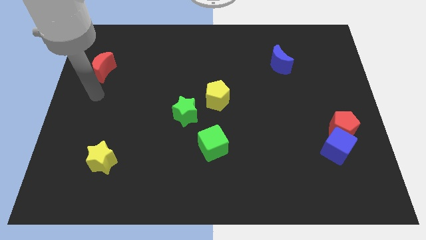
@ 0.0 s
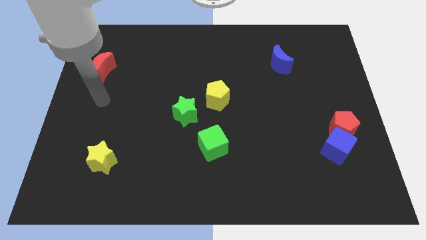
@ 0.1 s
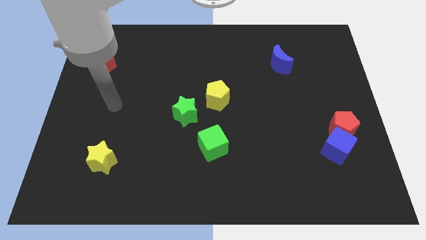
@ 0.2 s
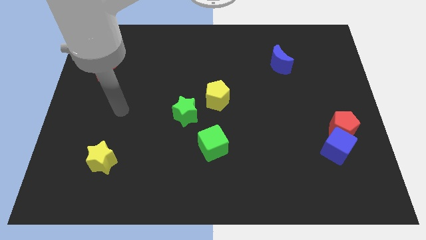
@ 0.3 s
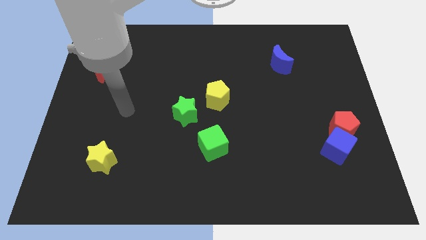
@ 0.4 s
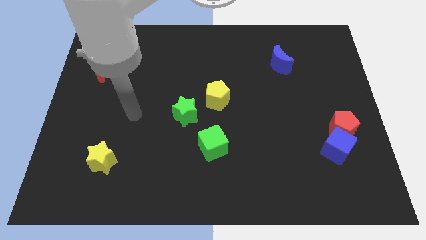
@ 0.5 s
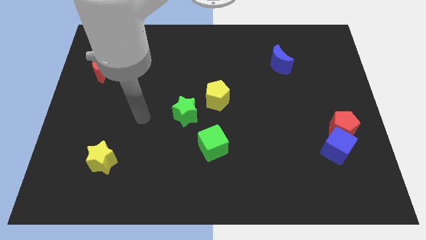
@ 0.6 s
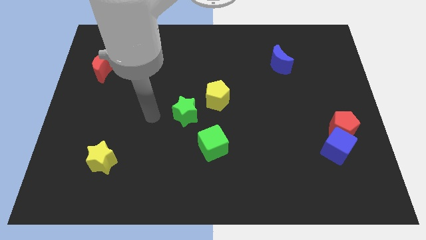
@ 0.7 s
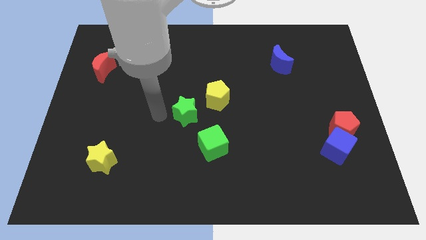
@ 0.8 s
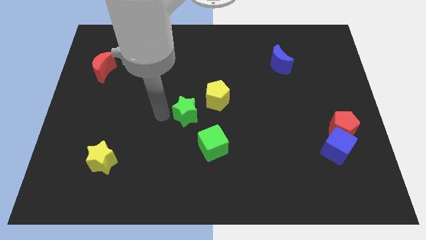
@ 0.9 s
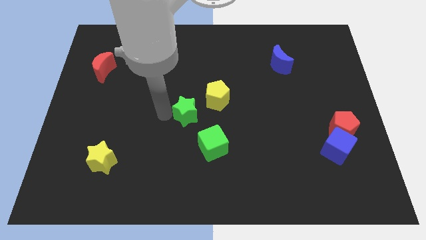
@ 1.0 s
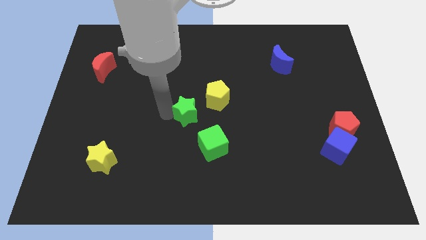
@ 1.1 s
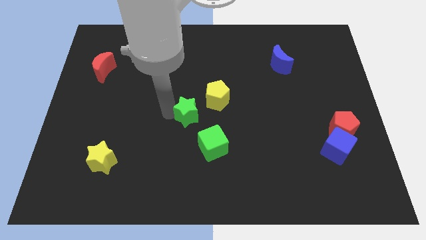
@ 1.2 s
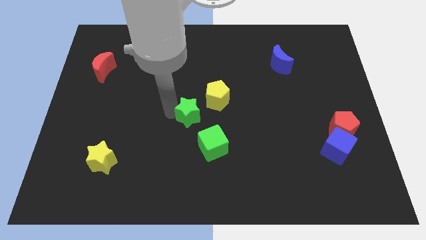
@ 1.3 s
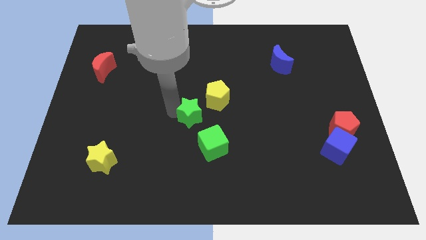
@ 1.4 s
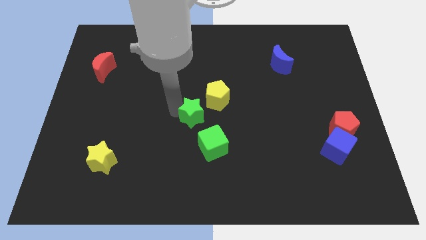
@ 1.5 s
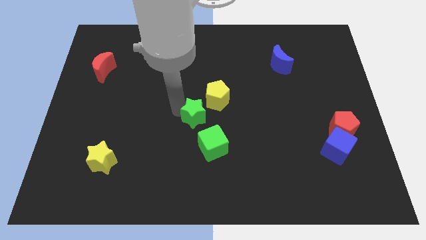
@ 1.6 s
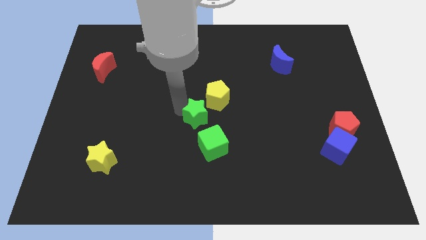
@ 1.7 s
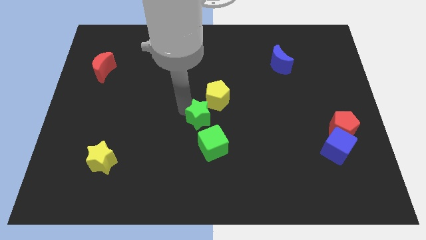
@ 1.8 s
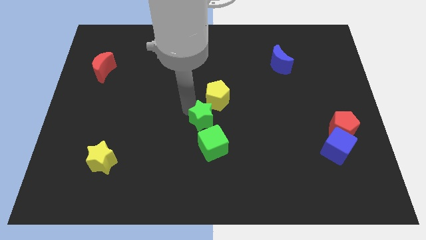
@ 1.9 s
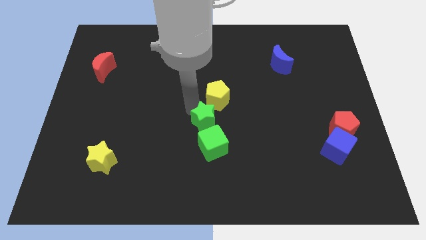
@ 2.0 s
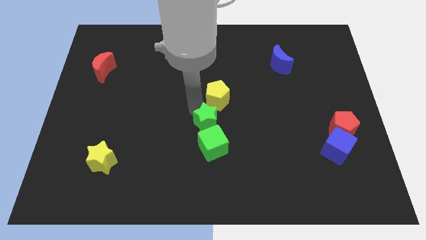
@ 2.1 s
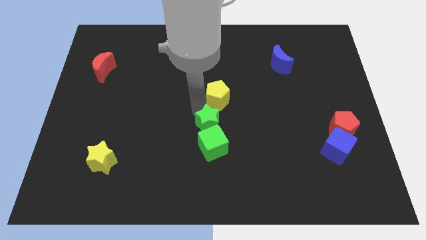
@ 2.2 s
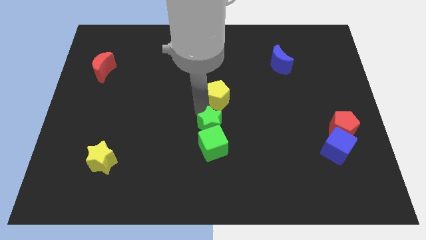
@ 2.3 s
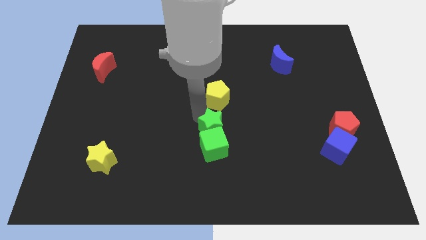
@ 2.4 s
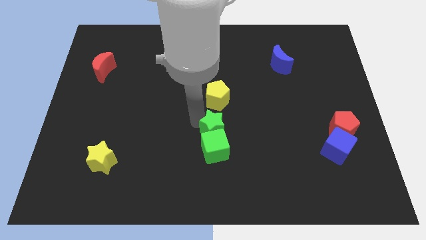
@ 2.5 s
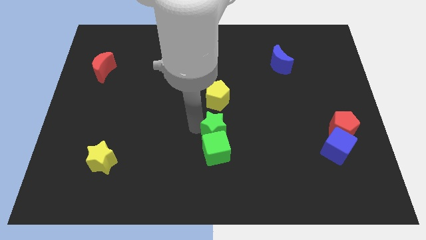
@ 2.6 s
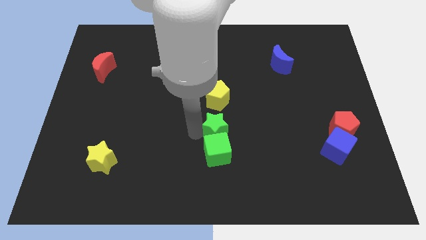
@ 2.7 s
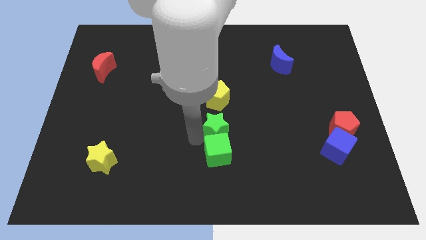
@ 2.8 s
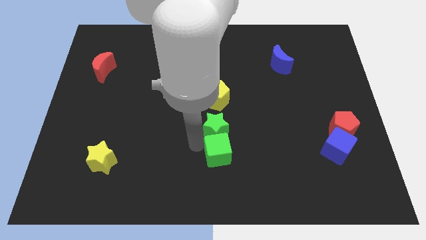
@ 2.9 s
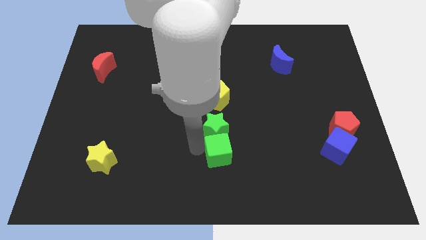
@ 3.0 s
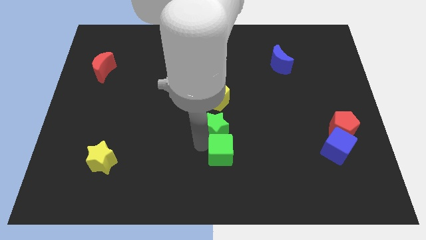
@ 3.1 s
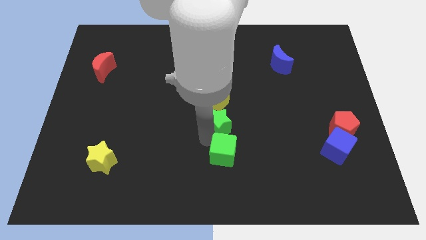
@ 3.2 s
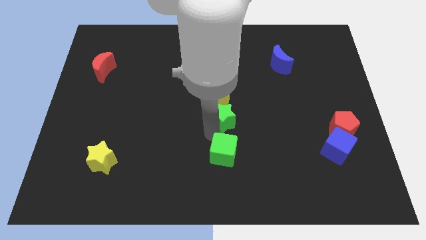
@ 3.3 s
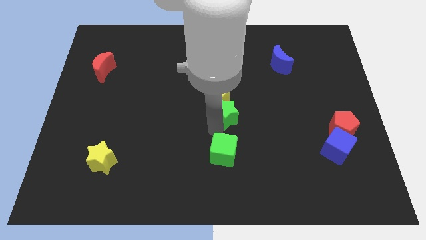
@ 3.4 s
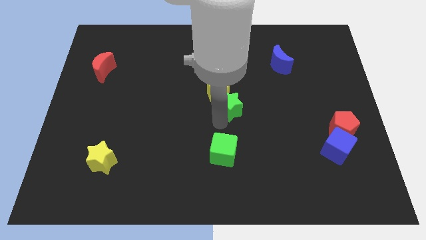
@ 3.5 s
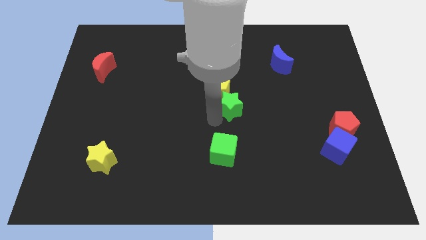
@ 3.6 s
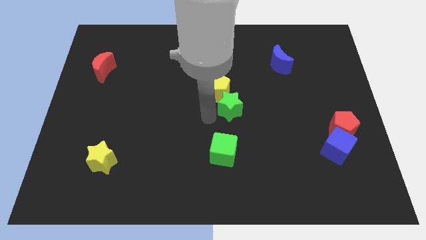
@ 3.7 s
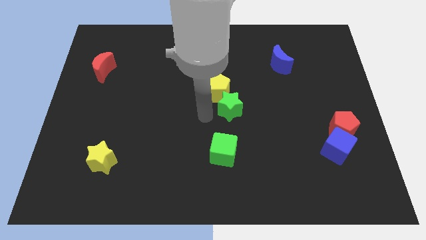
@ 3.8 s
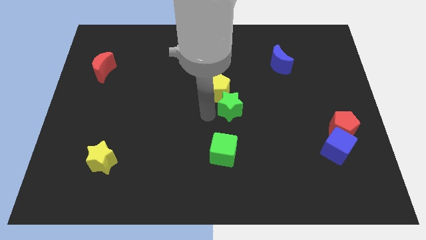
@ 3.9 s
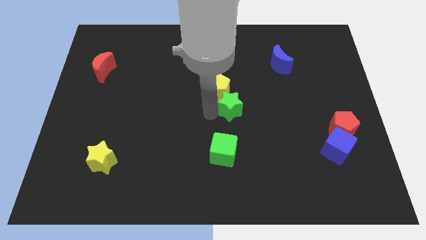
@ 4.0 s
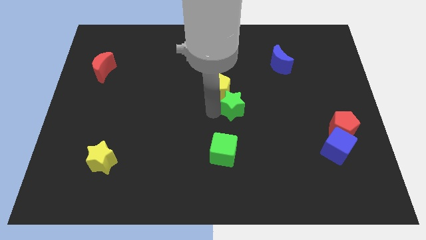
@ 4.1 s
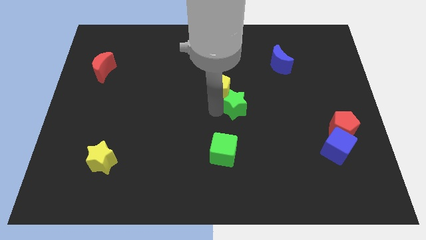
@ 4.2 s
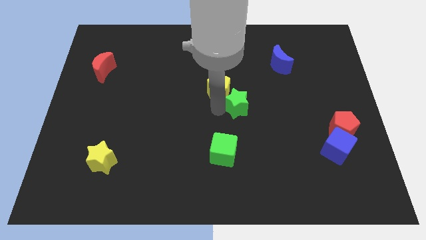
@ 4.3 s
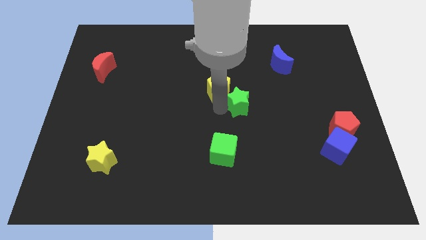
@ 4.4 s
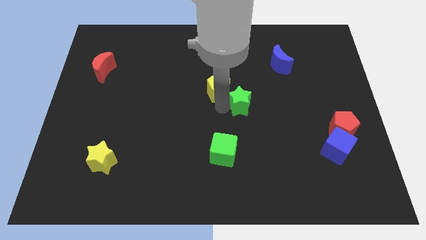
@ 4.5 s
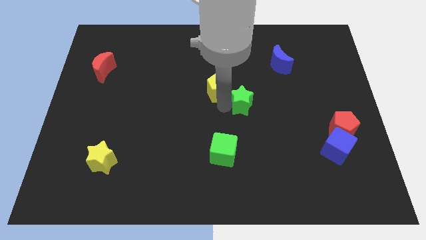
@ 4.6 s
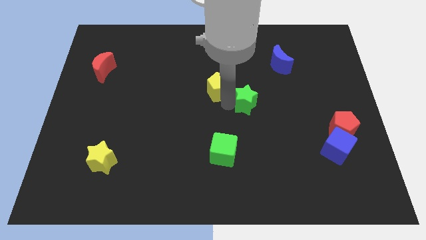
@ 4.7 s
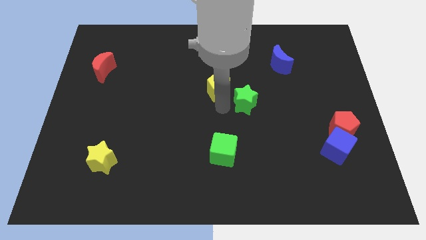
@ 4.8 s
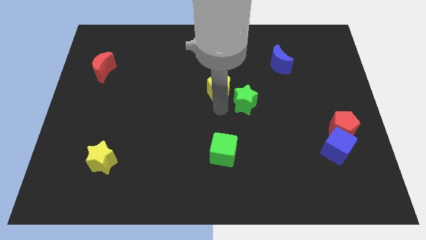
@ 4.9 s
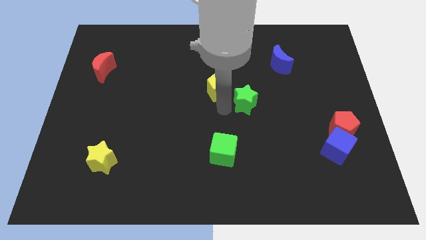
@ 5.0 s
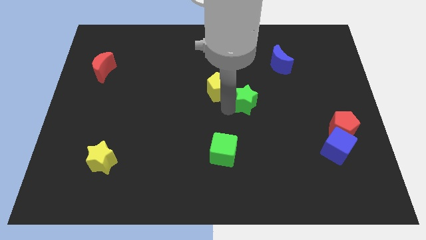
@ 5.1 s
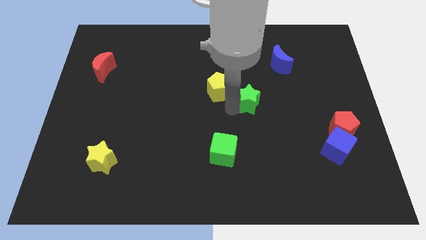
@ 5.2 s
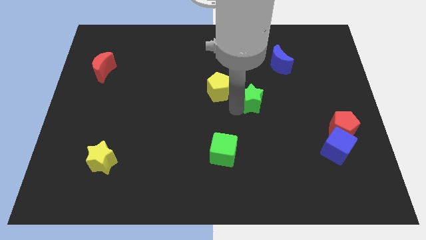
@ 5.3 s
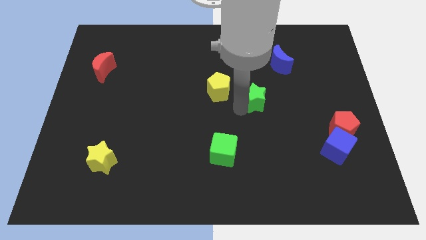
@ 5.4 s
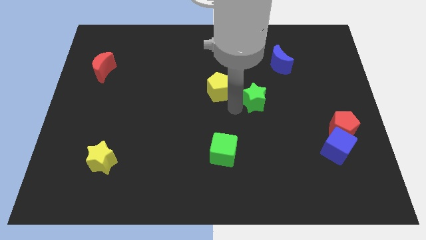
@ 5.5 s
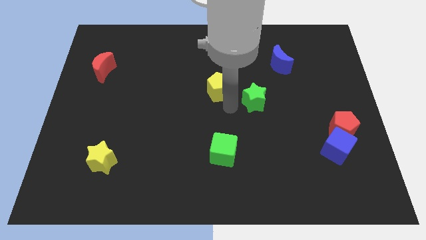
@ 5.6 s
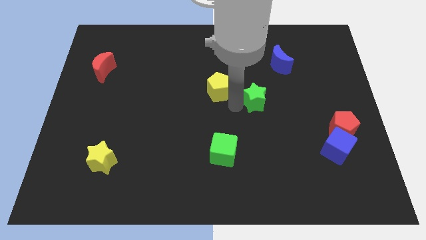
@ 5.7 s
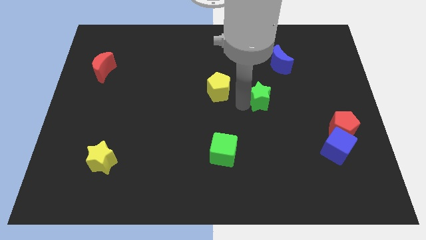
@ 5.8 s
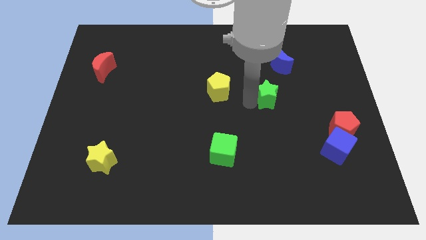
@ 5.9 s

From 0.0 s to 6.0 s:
push the green star to the bottom of the blue moon

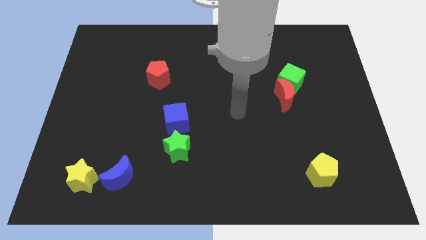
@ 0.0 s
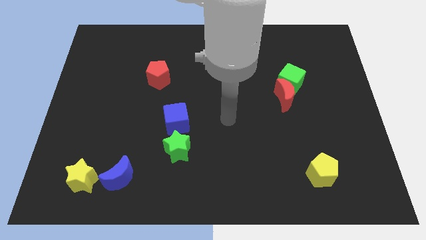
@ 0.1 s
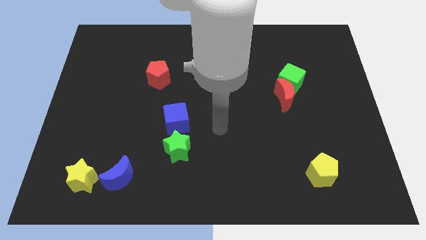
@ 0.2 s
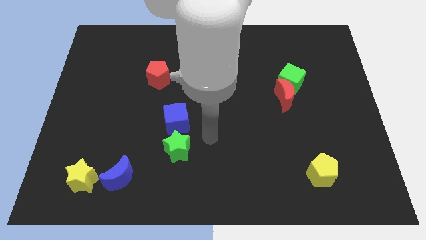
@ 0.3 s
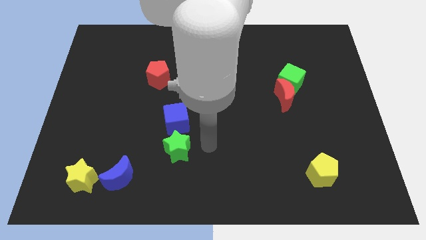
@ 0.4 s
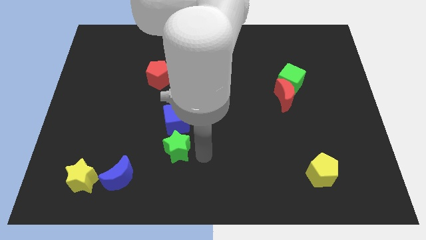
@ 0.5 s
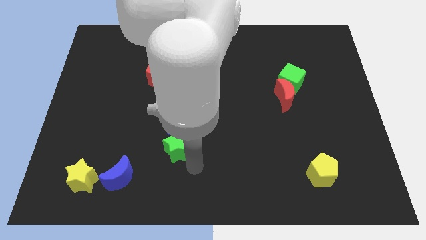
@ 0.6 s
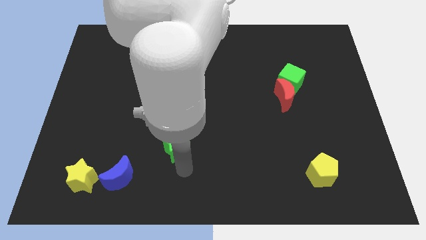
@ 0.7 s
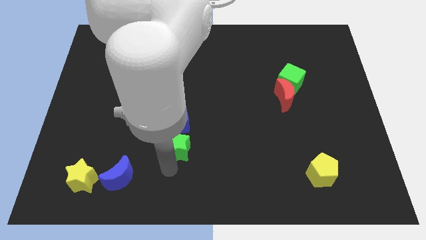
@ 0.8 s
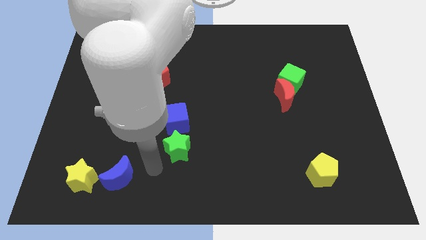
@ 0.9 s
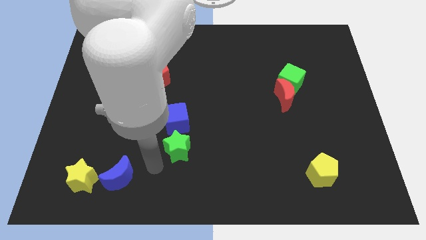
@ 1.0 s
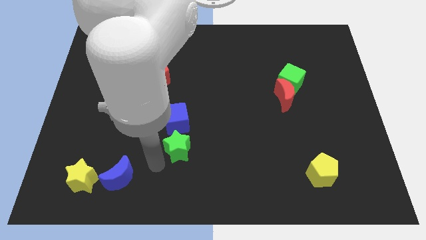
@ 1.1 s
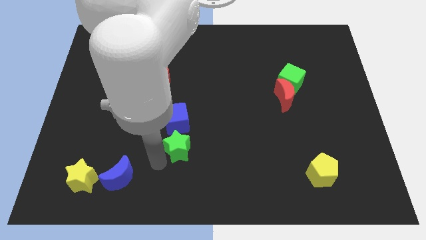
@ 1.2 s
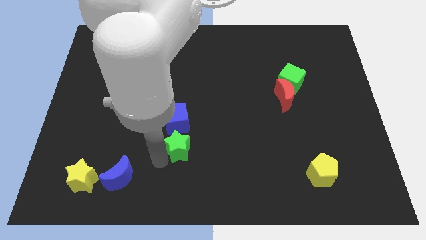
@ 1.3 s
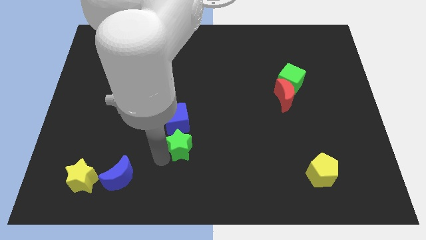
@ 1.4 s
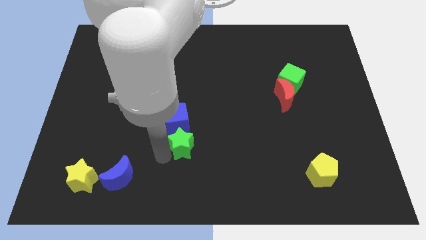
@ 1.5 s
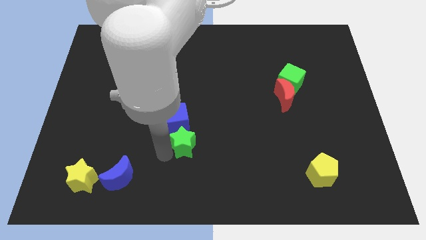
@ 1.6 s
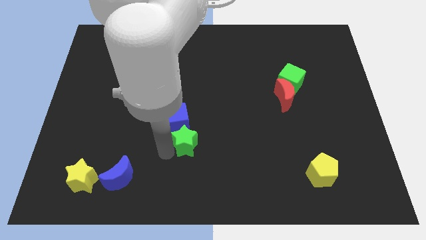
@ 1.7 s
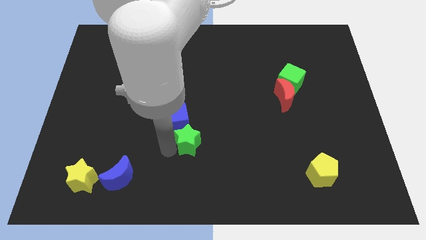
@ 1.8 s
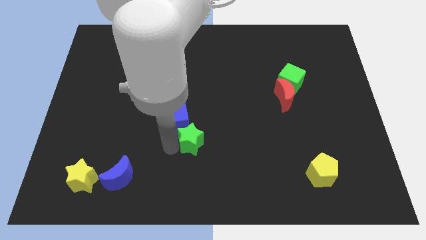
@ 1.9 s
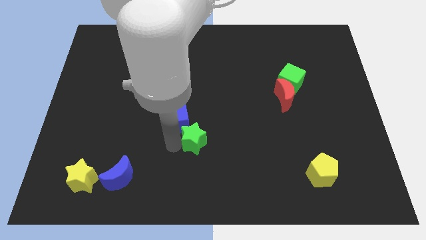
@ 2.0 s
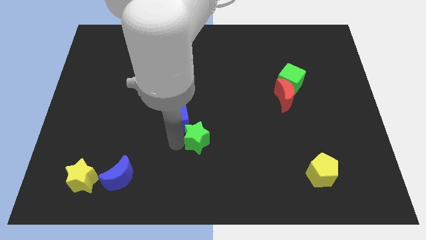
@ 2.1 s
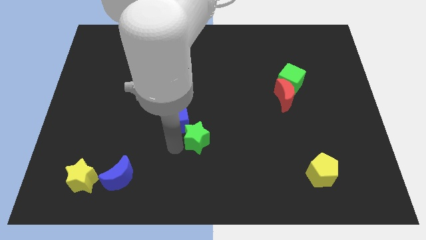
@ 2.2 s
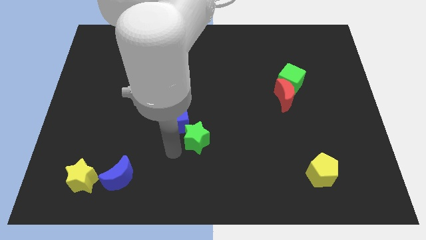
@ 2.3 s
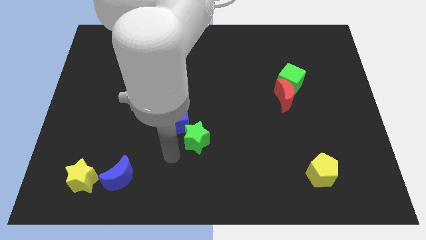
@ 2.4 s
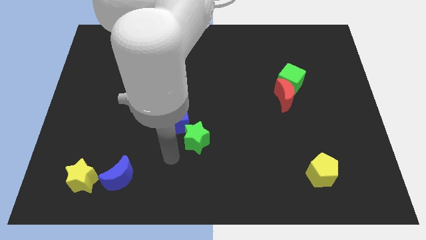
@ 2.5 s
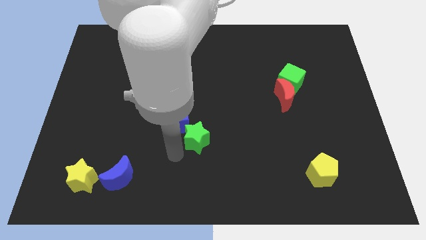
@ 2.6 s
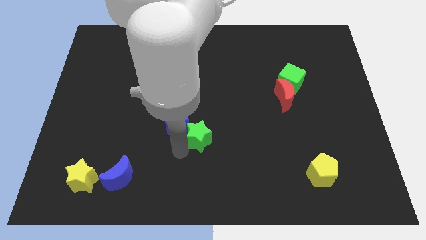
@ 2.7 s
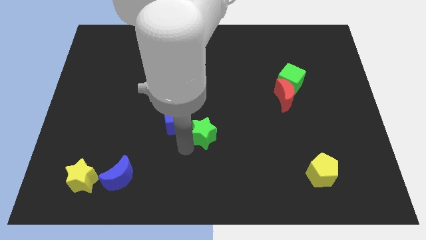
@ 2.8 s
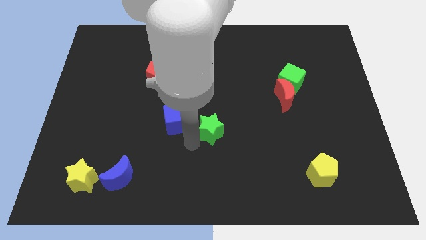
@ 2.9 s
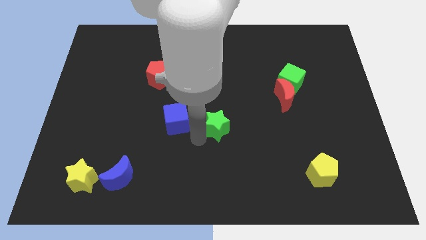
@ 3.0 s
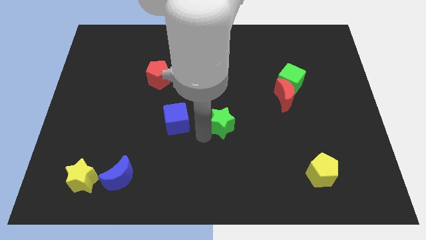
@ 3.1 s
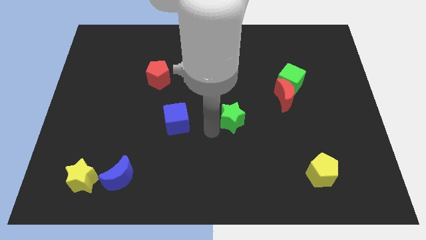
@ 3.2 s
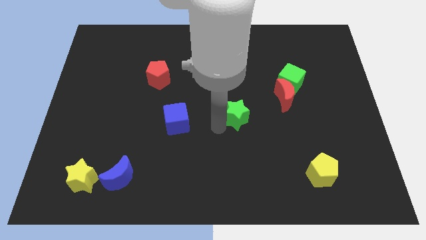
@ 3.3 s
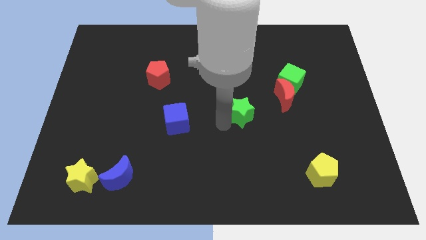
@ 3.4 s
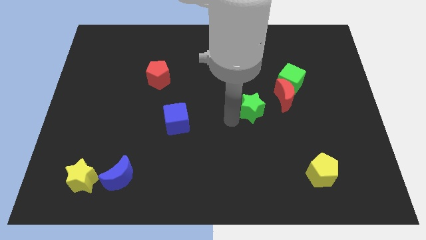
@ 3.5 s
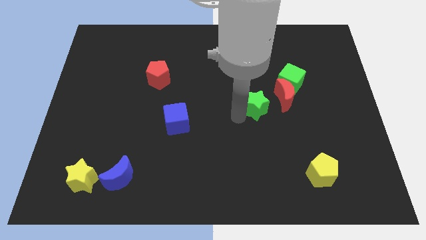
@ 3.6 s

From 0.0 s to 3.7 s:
push the green star to the bottom left side of the green cube
